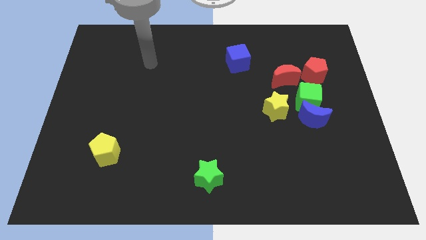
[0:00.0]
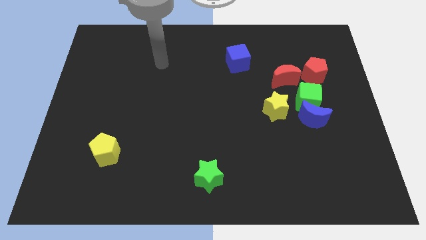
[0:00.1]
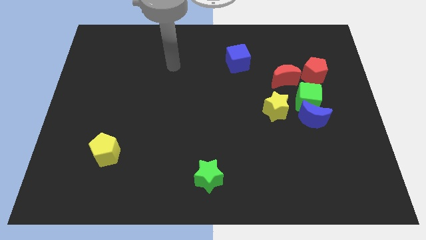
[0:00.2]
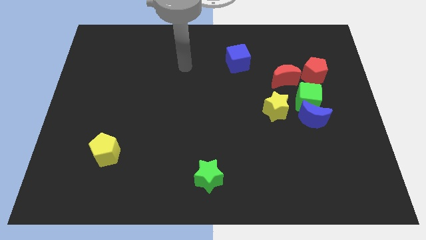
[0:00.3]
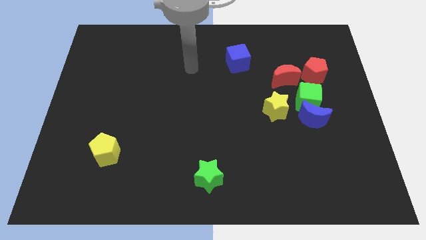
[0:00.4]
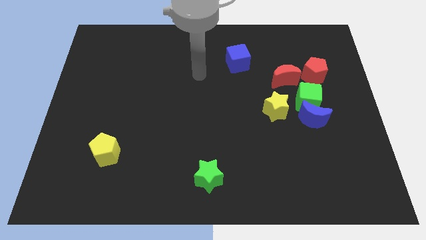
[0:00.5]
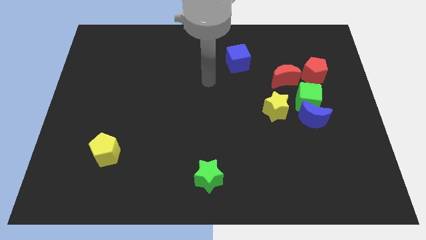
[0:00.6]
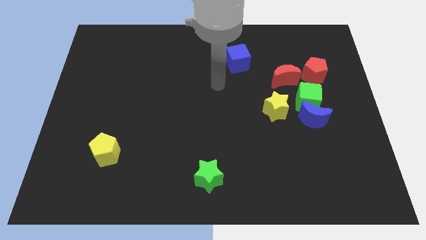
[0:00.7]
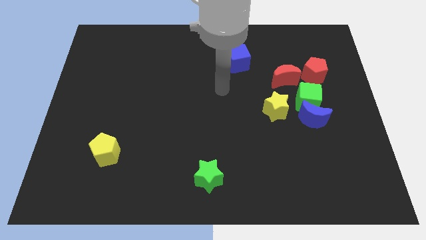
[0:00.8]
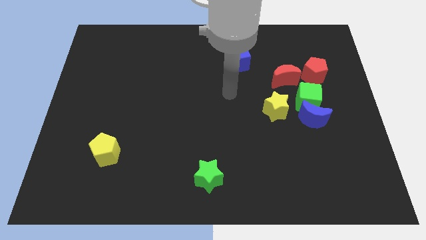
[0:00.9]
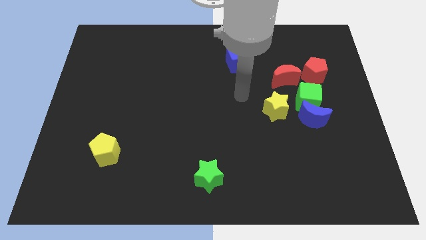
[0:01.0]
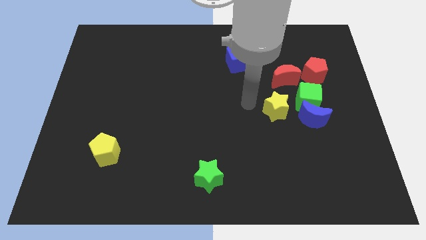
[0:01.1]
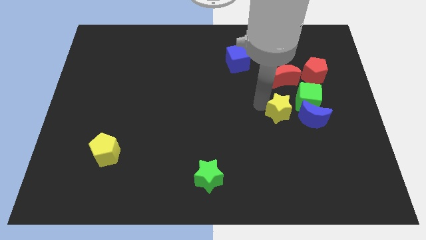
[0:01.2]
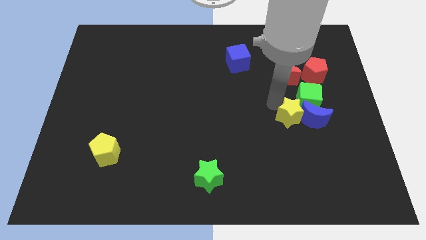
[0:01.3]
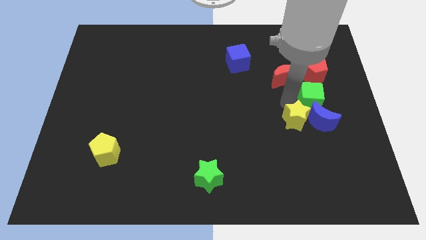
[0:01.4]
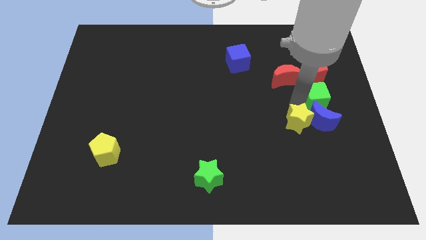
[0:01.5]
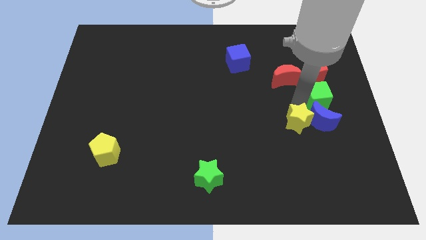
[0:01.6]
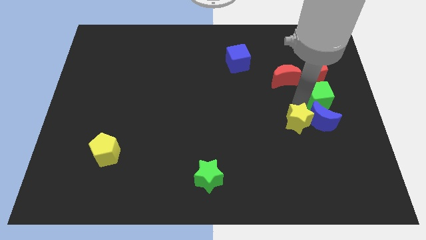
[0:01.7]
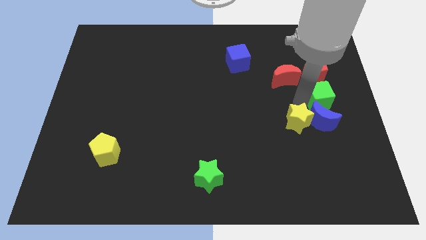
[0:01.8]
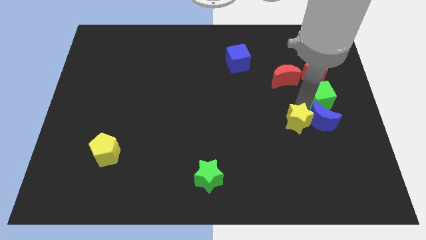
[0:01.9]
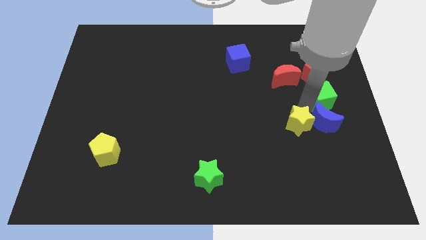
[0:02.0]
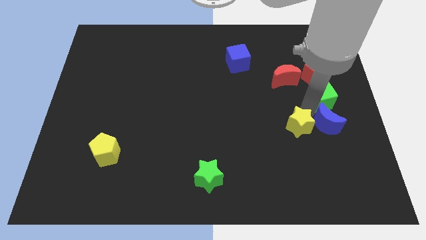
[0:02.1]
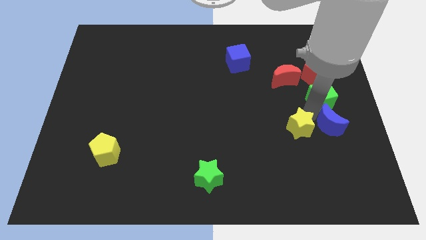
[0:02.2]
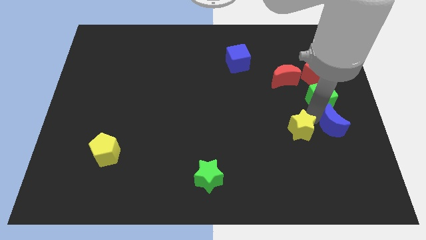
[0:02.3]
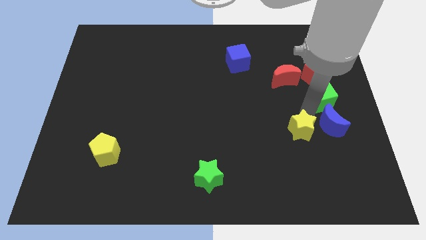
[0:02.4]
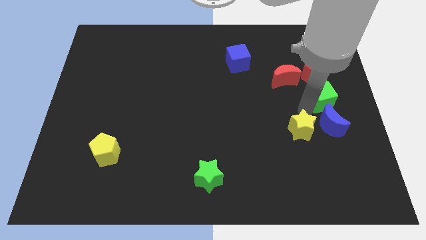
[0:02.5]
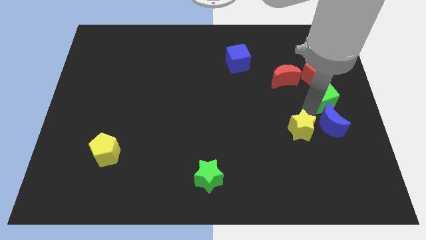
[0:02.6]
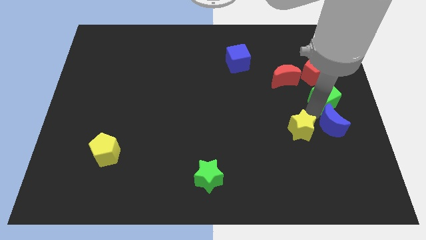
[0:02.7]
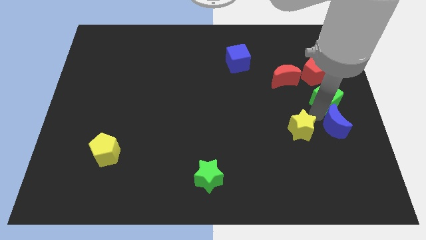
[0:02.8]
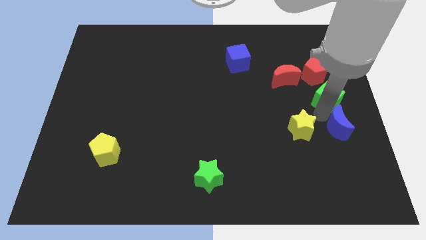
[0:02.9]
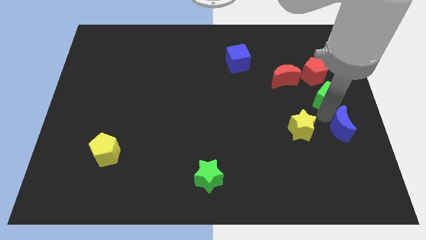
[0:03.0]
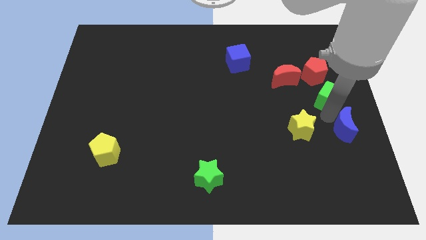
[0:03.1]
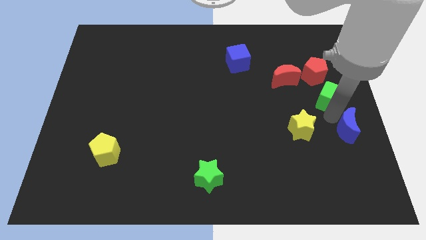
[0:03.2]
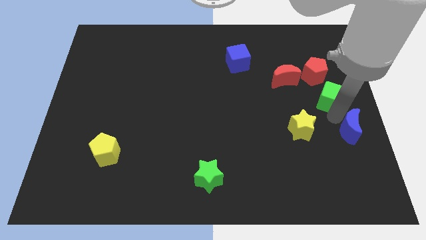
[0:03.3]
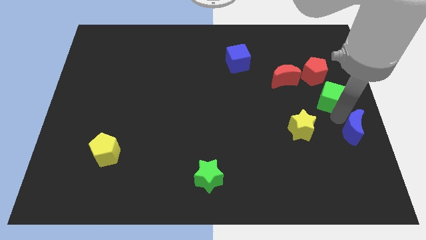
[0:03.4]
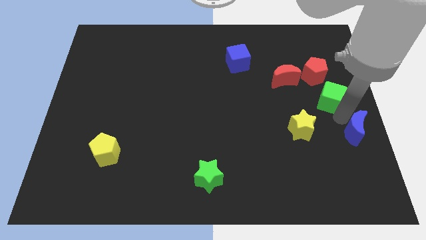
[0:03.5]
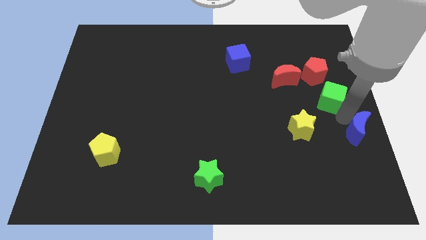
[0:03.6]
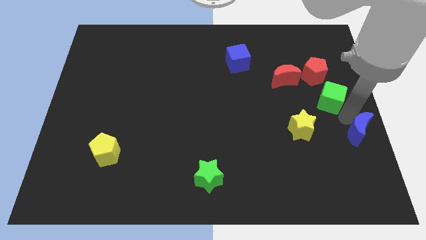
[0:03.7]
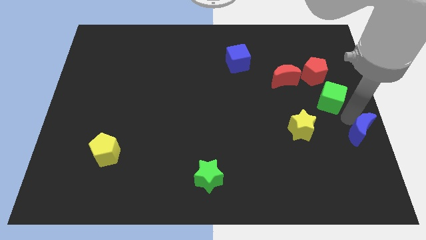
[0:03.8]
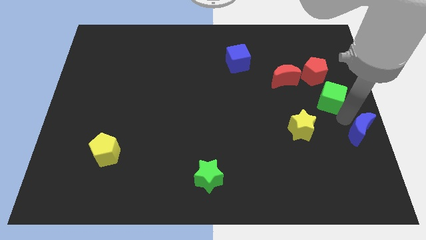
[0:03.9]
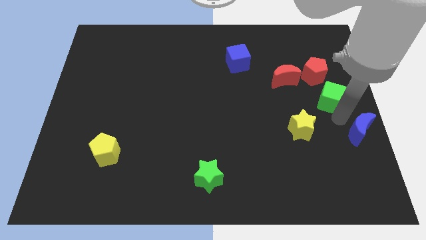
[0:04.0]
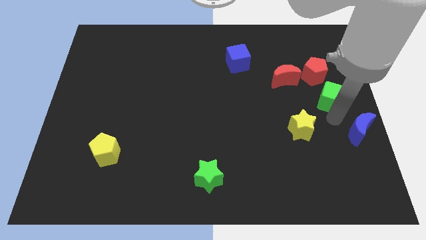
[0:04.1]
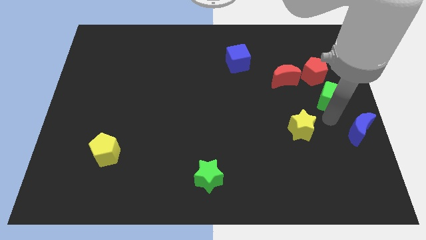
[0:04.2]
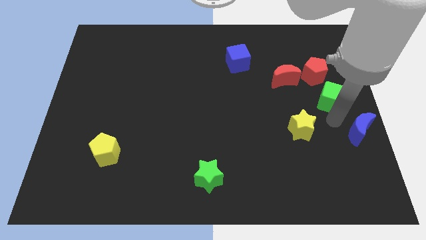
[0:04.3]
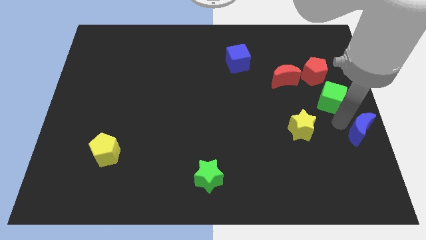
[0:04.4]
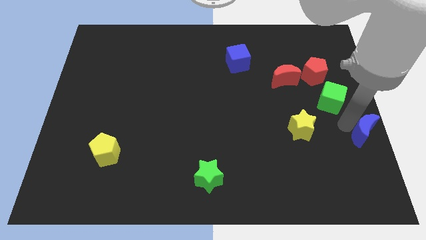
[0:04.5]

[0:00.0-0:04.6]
pull the blue moon apart from the green cube and yellow star

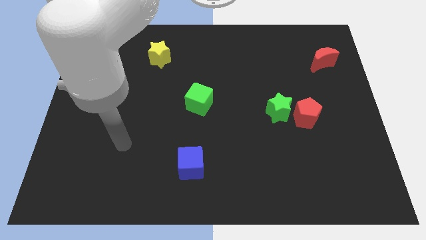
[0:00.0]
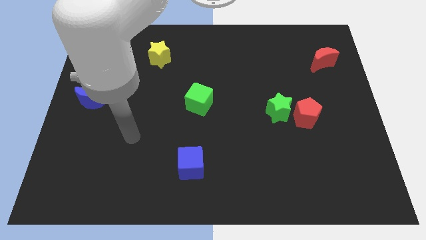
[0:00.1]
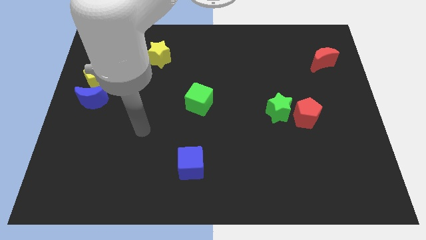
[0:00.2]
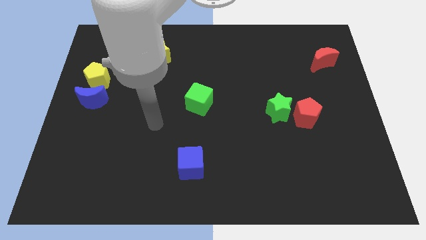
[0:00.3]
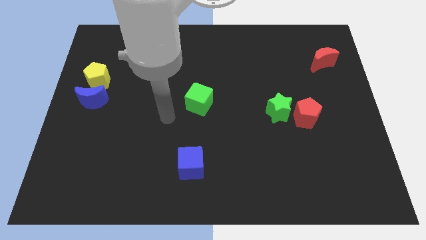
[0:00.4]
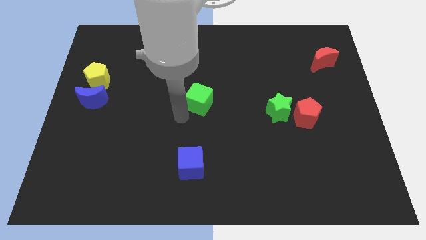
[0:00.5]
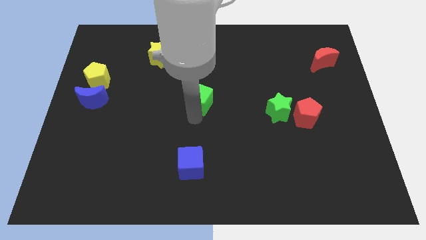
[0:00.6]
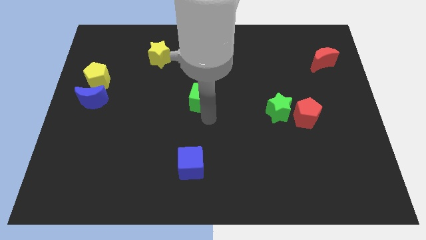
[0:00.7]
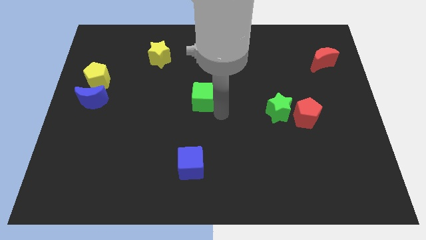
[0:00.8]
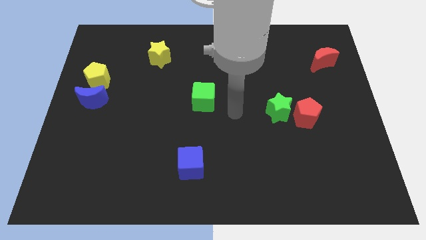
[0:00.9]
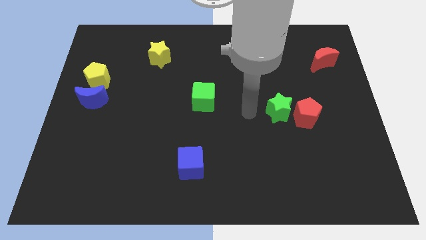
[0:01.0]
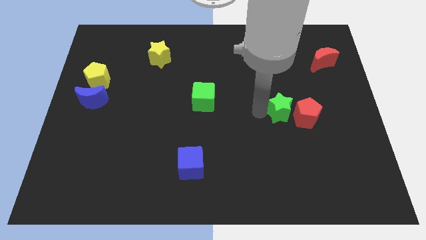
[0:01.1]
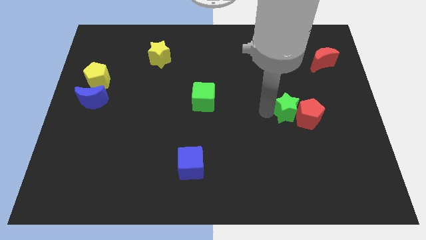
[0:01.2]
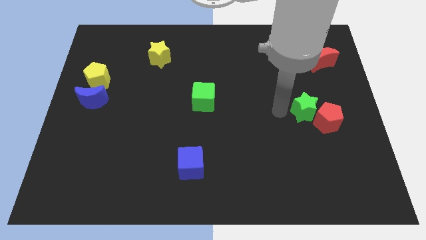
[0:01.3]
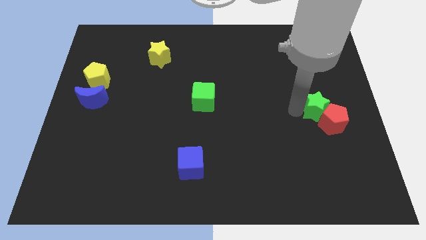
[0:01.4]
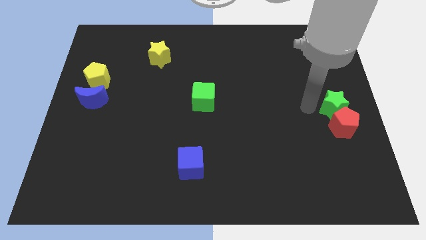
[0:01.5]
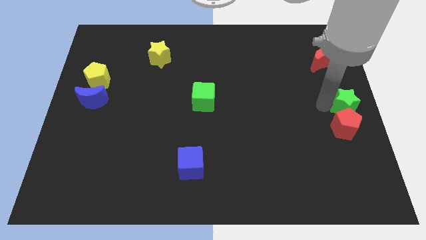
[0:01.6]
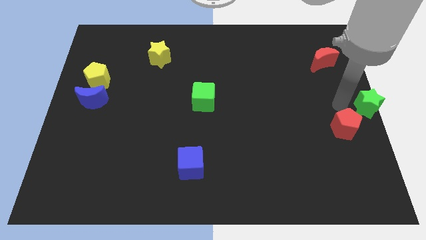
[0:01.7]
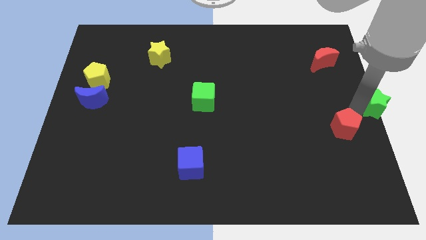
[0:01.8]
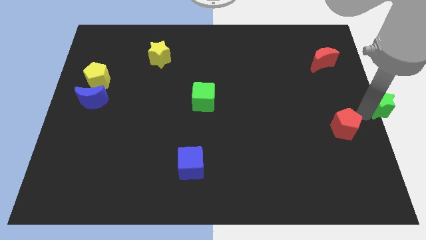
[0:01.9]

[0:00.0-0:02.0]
move the red pentagon away from the green star

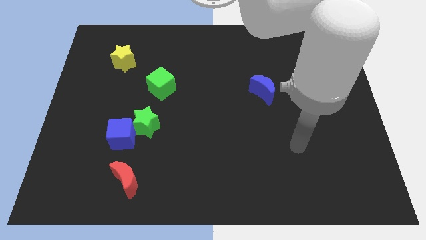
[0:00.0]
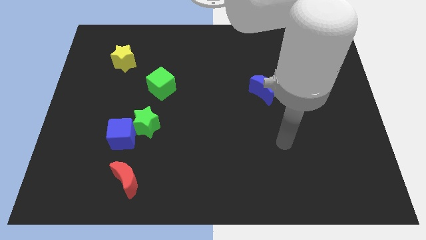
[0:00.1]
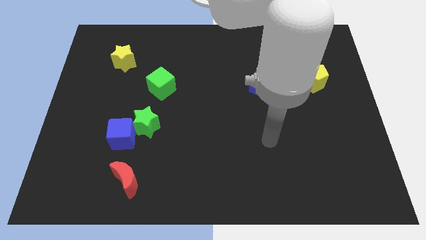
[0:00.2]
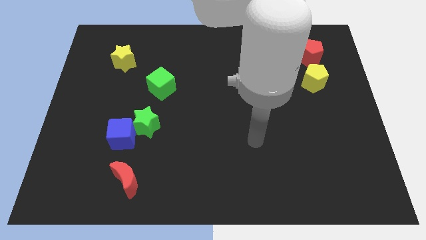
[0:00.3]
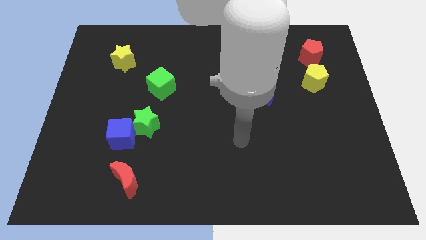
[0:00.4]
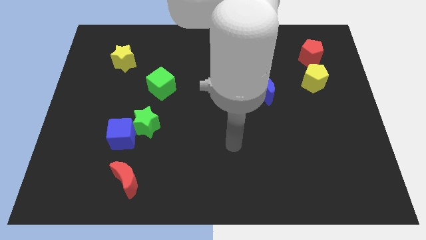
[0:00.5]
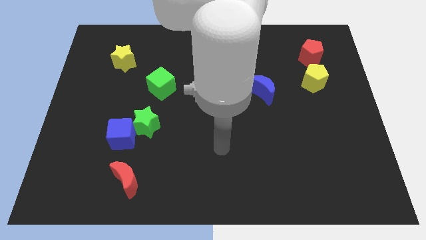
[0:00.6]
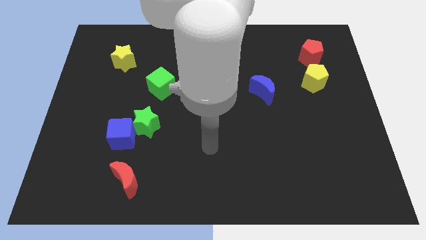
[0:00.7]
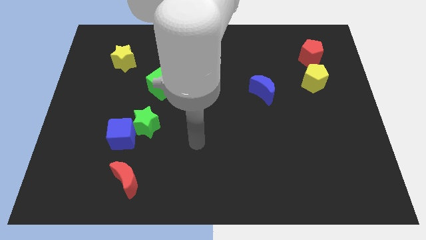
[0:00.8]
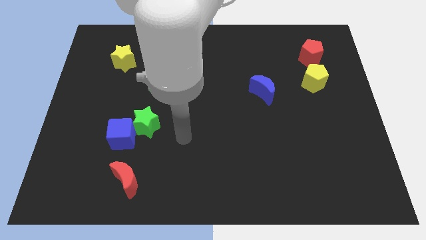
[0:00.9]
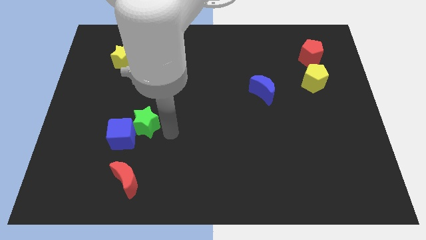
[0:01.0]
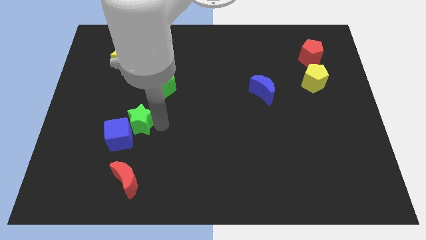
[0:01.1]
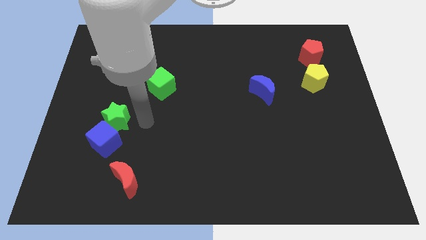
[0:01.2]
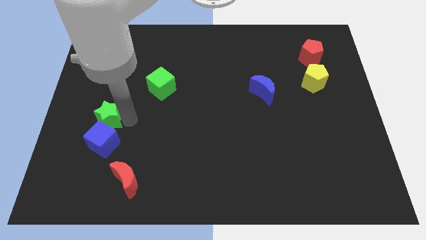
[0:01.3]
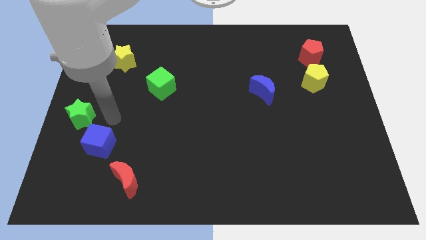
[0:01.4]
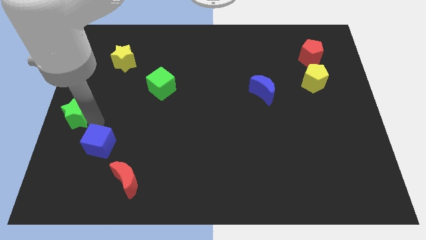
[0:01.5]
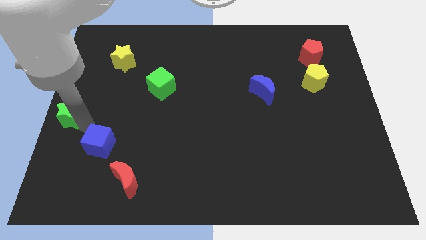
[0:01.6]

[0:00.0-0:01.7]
pull the blue cube apart from the green star

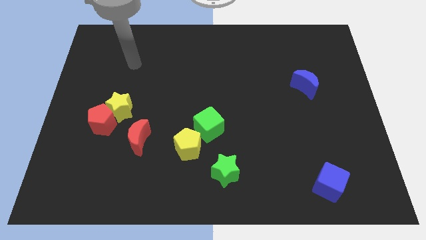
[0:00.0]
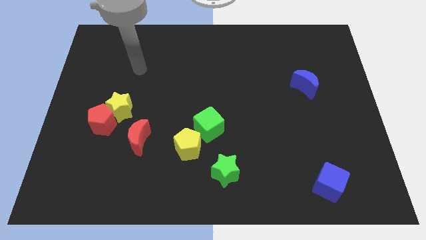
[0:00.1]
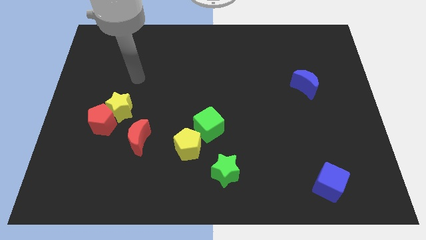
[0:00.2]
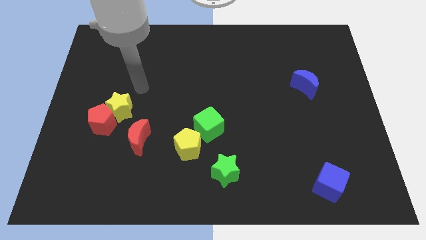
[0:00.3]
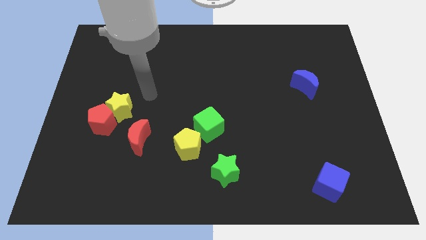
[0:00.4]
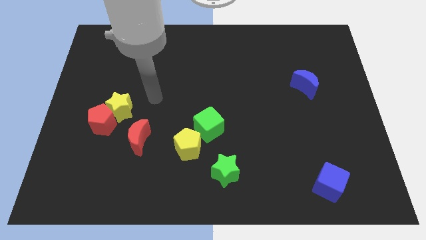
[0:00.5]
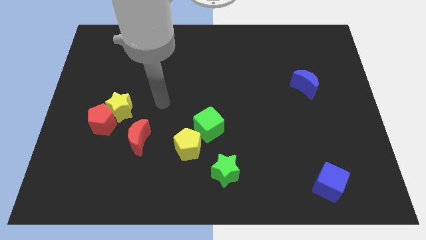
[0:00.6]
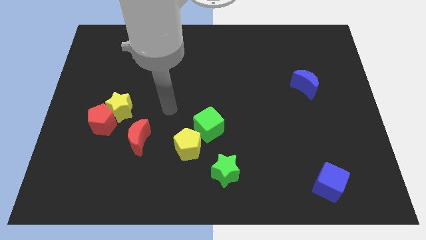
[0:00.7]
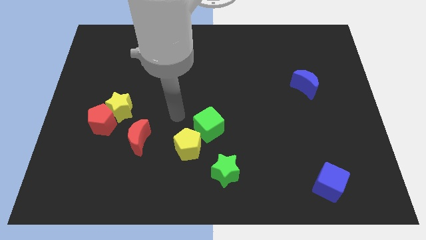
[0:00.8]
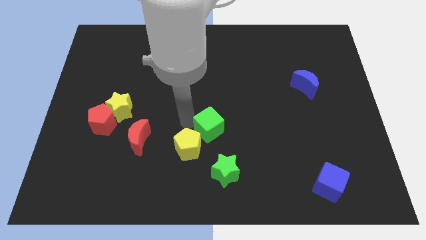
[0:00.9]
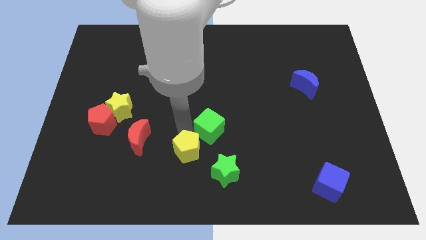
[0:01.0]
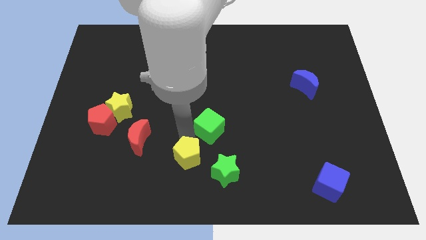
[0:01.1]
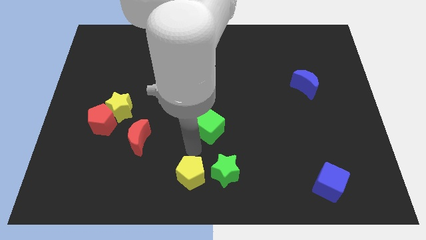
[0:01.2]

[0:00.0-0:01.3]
separate the green cube from the yellow pentagon
